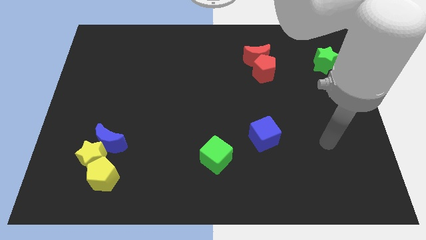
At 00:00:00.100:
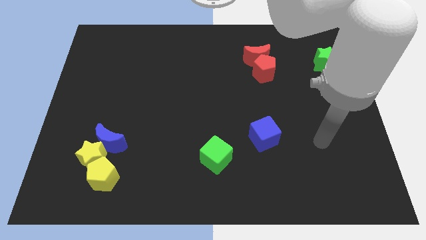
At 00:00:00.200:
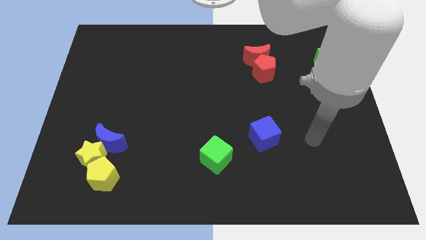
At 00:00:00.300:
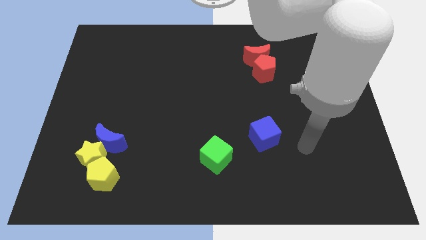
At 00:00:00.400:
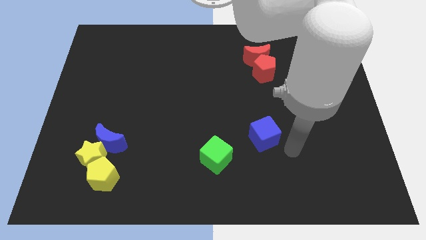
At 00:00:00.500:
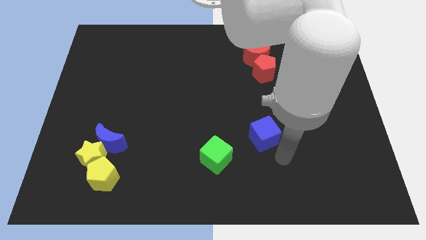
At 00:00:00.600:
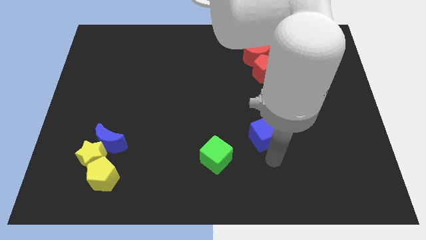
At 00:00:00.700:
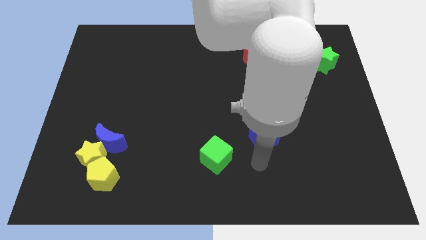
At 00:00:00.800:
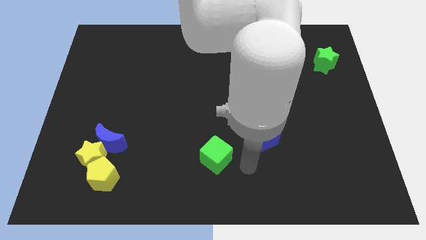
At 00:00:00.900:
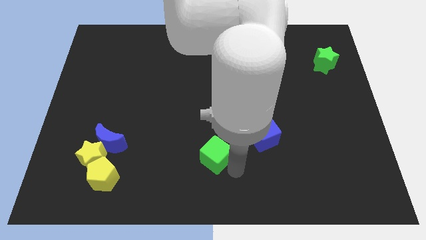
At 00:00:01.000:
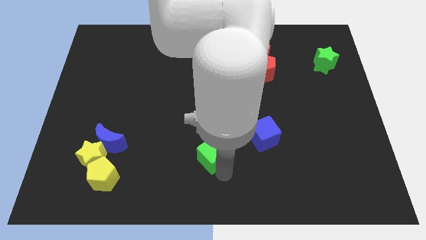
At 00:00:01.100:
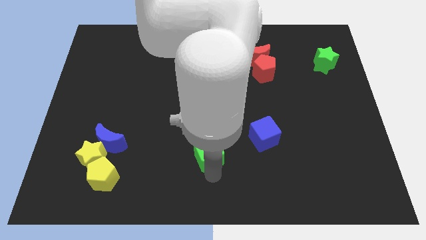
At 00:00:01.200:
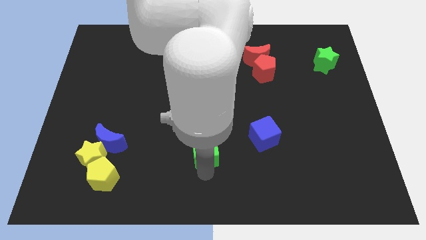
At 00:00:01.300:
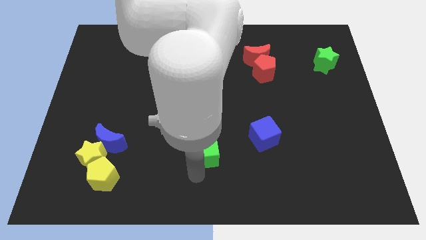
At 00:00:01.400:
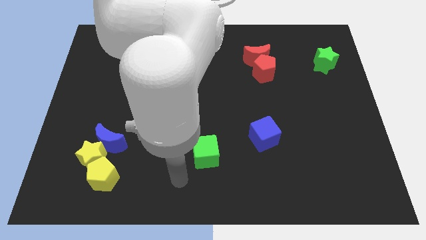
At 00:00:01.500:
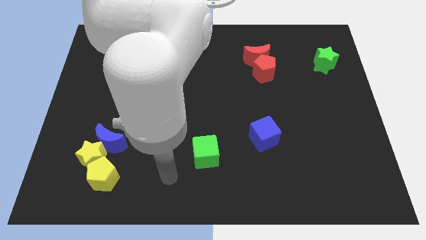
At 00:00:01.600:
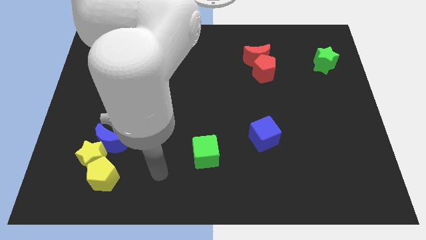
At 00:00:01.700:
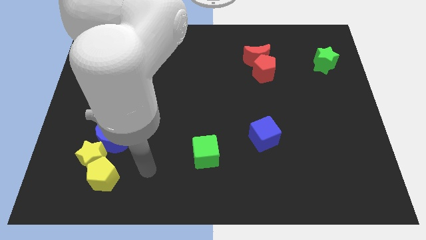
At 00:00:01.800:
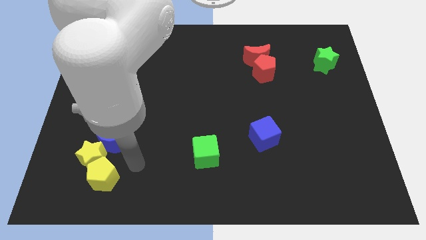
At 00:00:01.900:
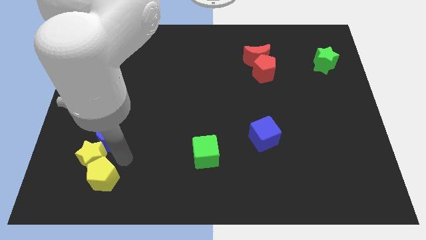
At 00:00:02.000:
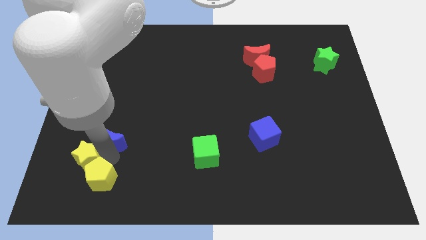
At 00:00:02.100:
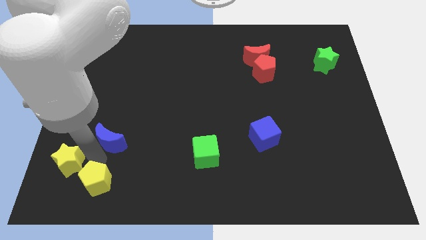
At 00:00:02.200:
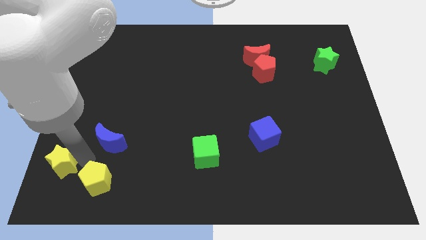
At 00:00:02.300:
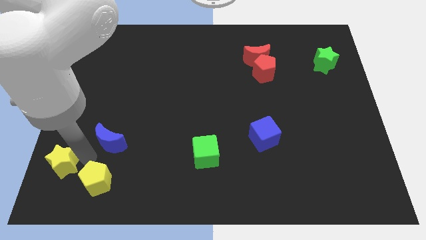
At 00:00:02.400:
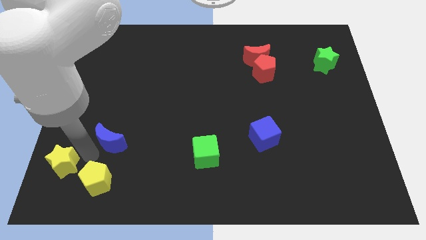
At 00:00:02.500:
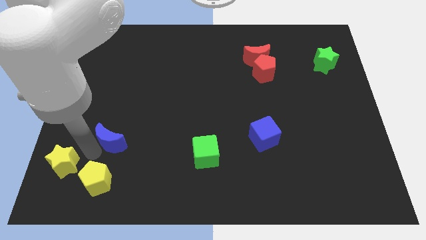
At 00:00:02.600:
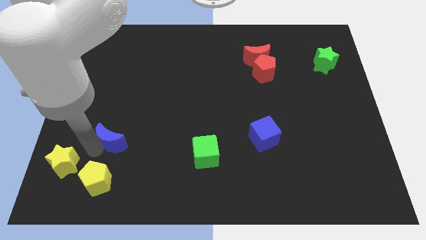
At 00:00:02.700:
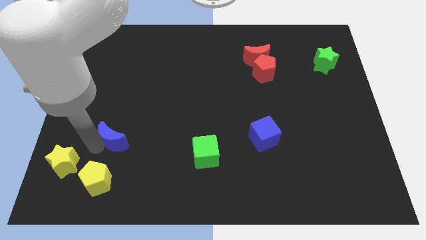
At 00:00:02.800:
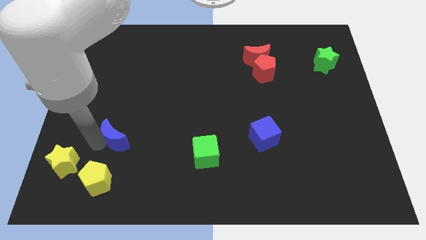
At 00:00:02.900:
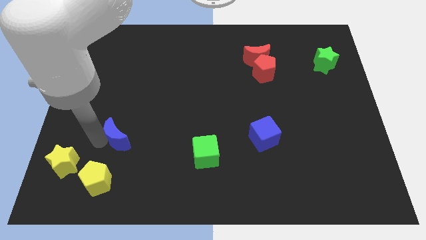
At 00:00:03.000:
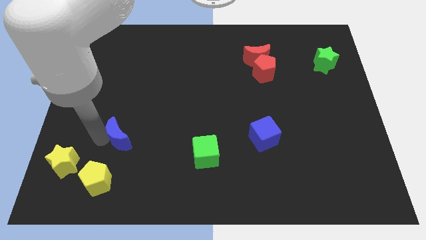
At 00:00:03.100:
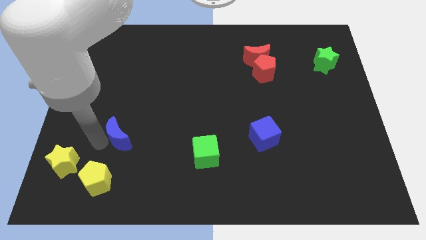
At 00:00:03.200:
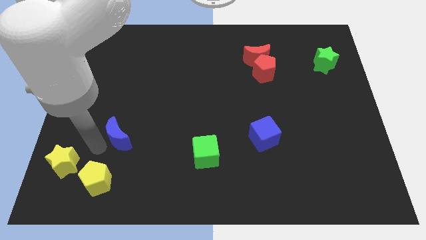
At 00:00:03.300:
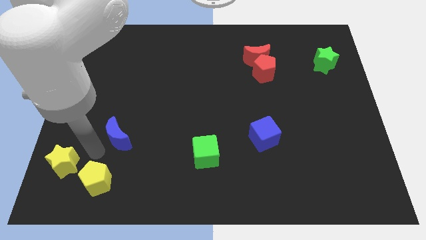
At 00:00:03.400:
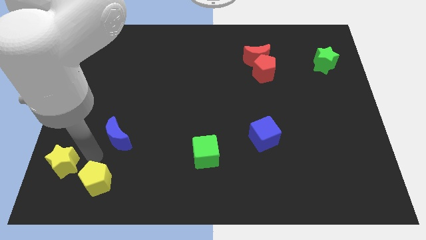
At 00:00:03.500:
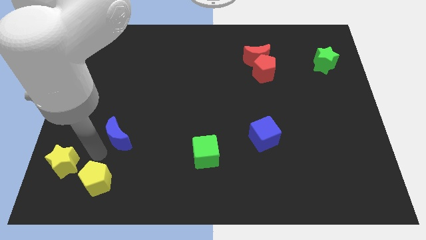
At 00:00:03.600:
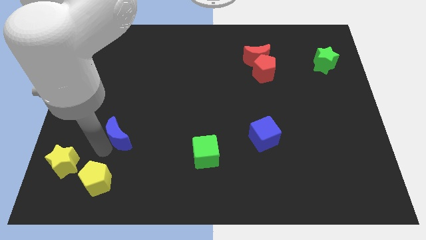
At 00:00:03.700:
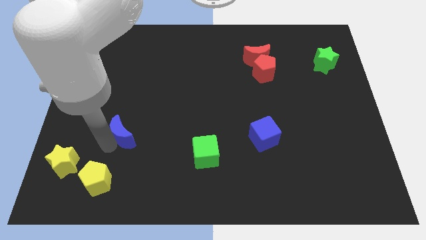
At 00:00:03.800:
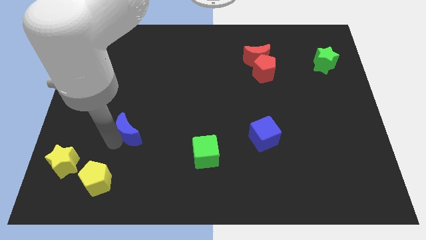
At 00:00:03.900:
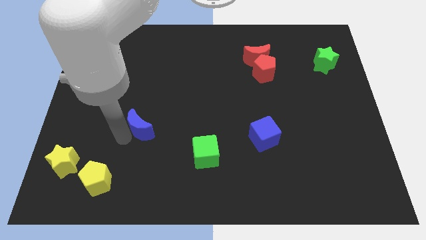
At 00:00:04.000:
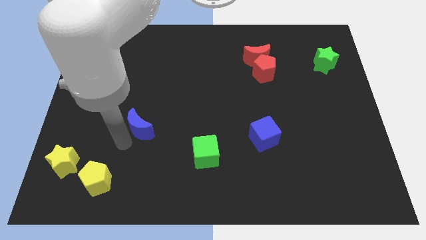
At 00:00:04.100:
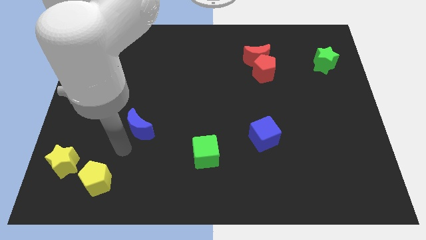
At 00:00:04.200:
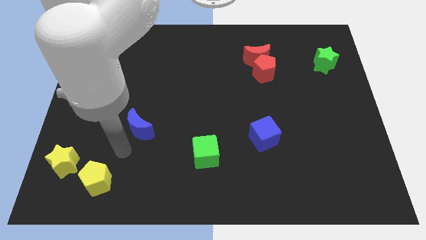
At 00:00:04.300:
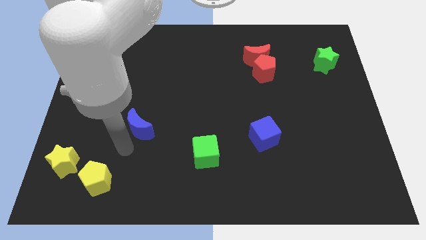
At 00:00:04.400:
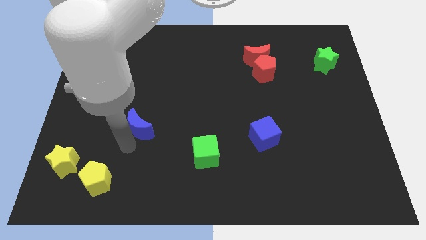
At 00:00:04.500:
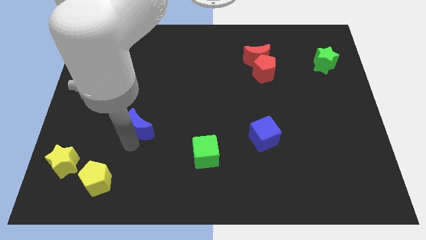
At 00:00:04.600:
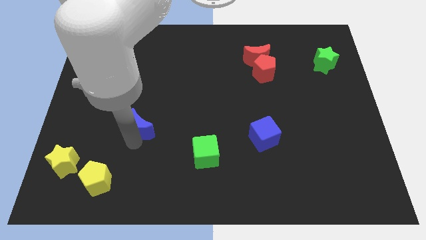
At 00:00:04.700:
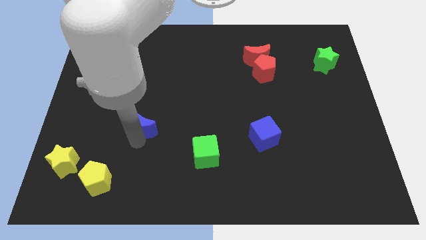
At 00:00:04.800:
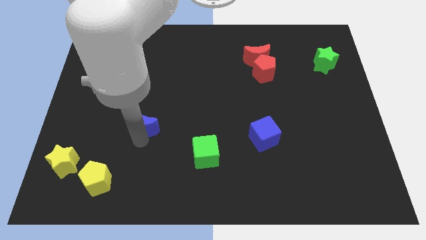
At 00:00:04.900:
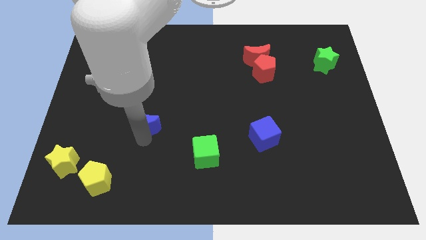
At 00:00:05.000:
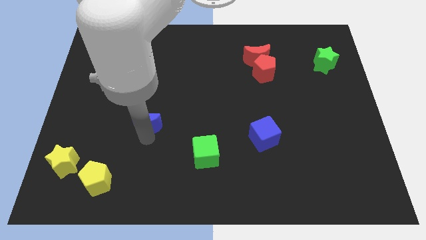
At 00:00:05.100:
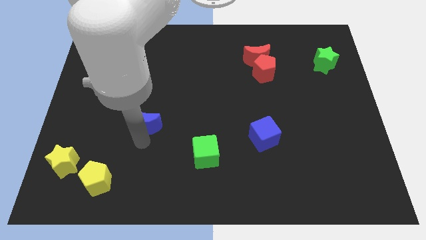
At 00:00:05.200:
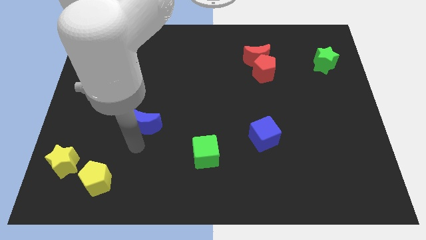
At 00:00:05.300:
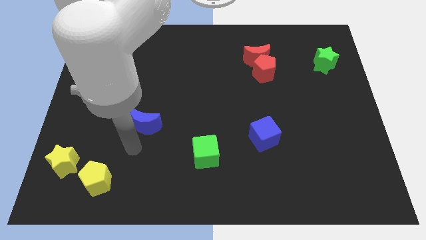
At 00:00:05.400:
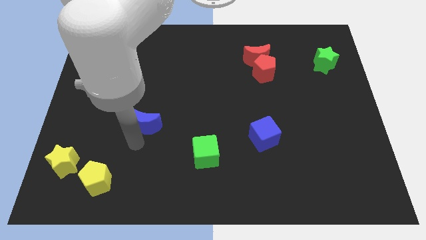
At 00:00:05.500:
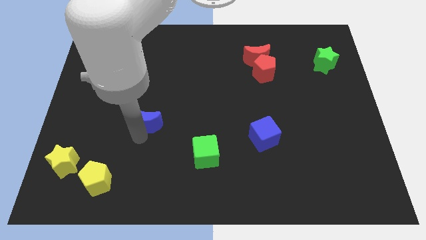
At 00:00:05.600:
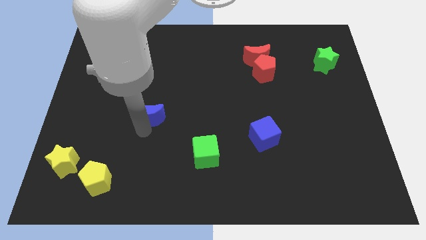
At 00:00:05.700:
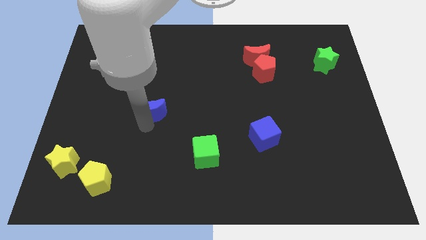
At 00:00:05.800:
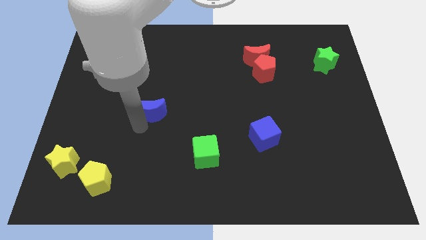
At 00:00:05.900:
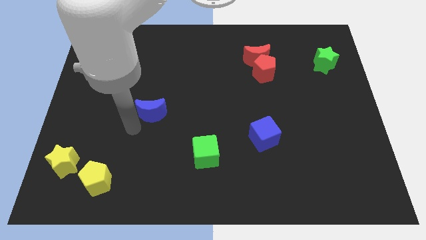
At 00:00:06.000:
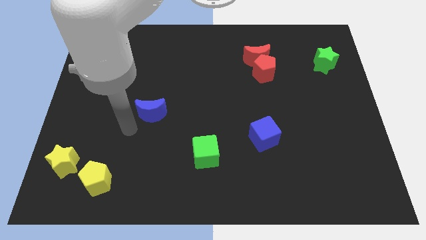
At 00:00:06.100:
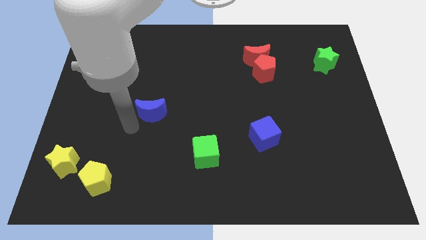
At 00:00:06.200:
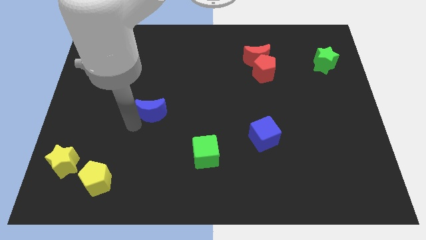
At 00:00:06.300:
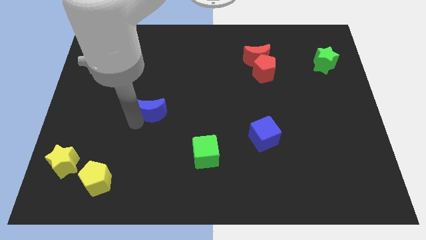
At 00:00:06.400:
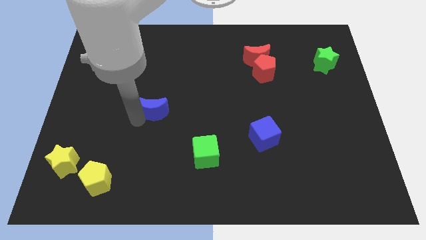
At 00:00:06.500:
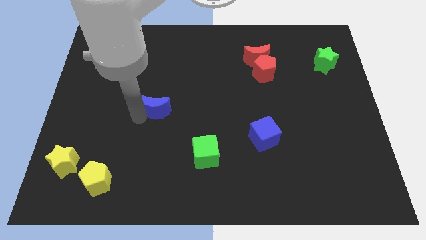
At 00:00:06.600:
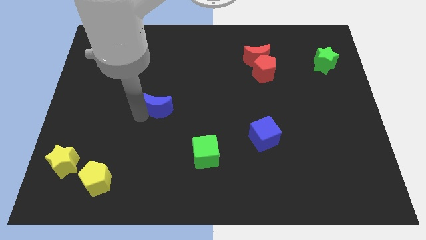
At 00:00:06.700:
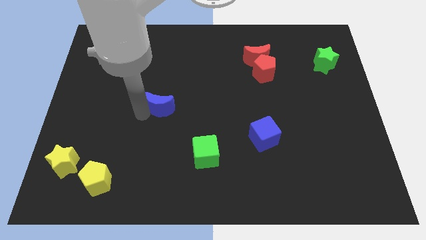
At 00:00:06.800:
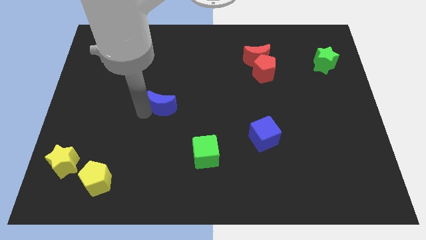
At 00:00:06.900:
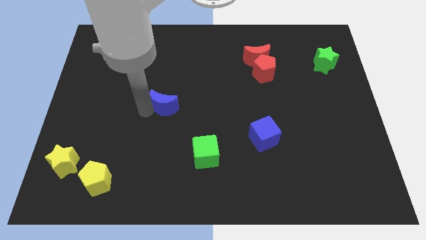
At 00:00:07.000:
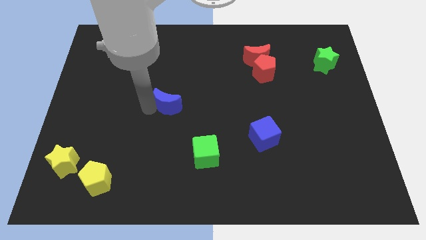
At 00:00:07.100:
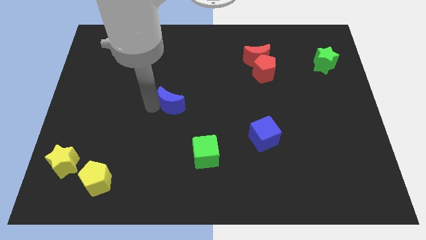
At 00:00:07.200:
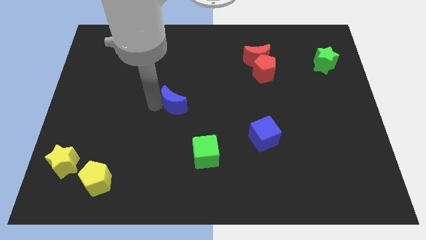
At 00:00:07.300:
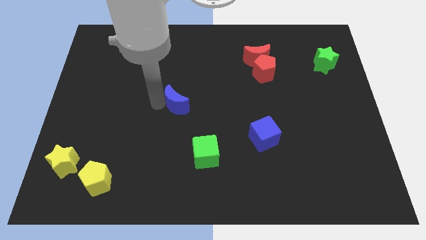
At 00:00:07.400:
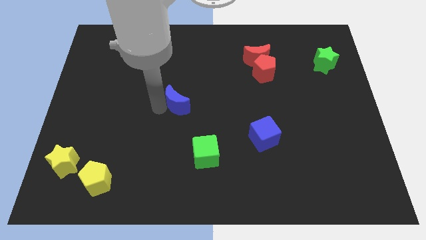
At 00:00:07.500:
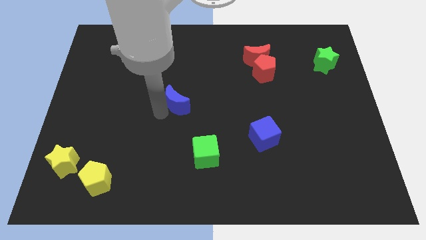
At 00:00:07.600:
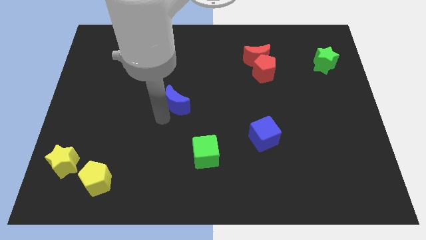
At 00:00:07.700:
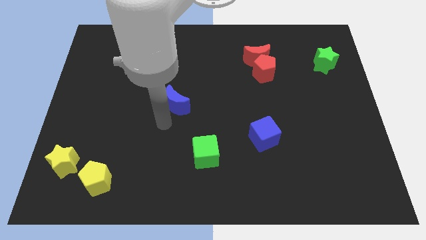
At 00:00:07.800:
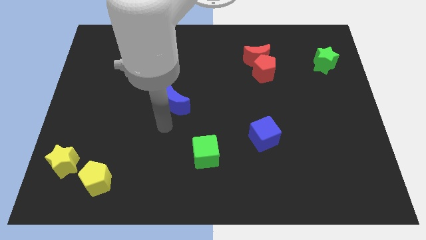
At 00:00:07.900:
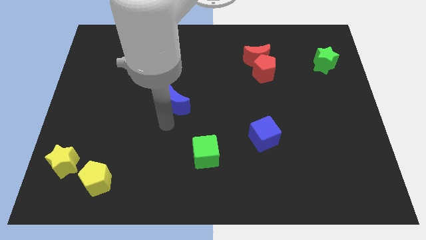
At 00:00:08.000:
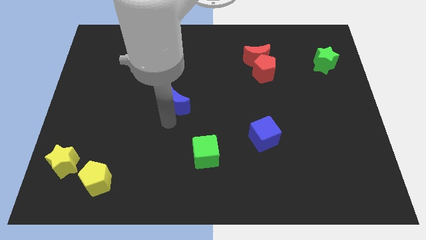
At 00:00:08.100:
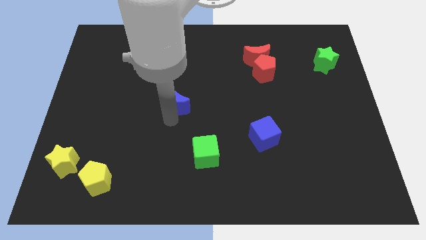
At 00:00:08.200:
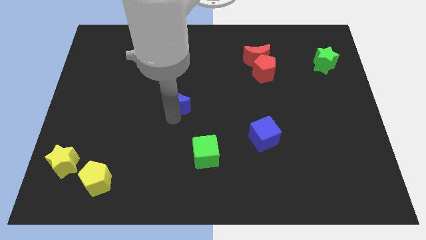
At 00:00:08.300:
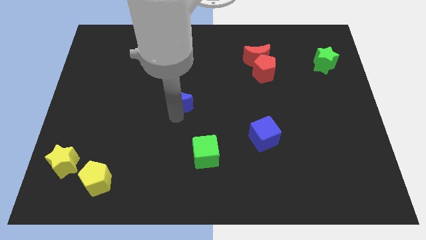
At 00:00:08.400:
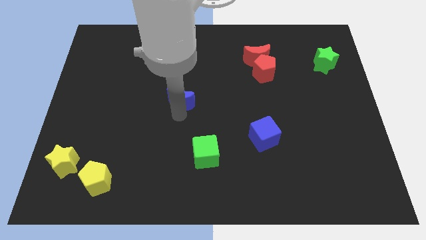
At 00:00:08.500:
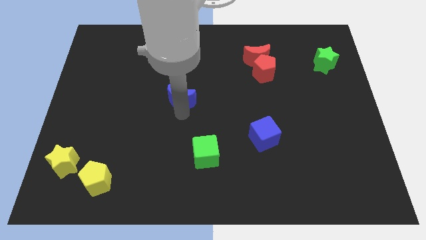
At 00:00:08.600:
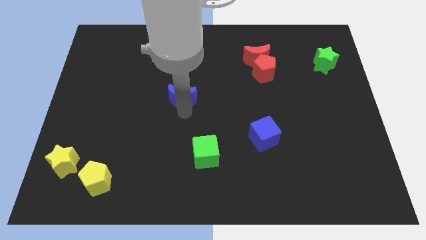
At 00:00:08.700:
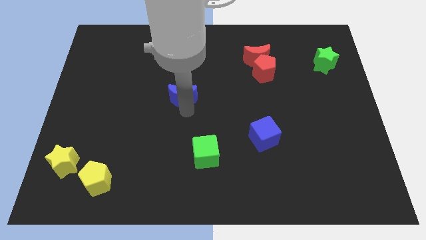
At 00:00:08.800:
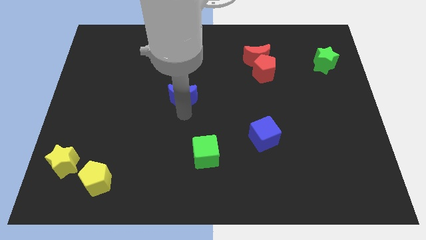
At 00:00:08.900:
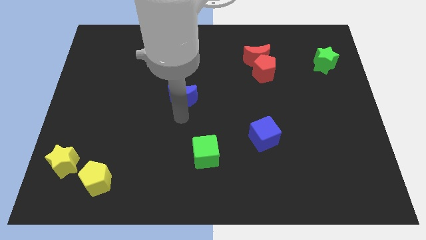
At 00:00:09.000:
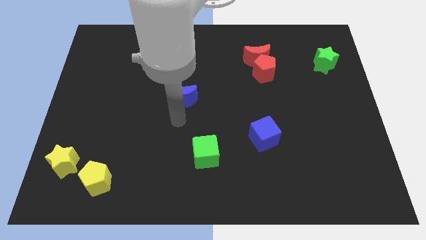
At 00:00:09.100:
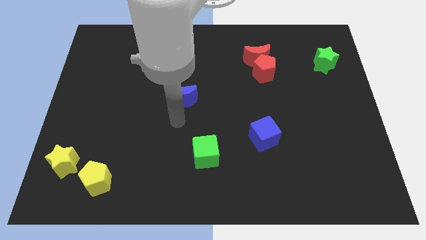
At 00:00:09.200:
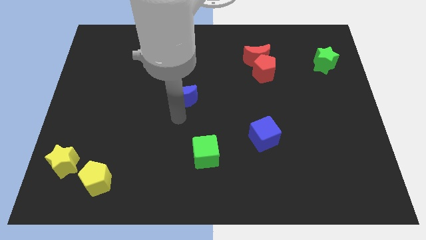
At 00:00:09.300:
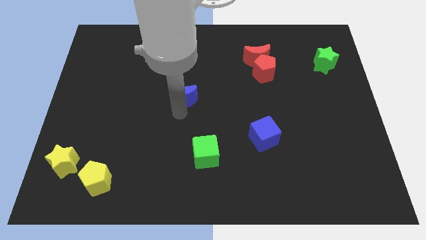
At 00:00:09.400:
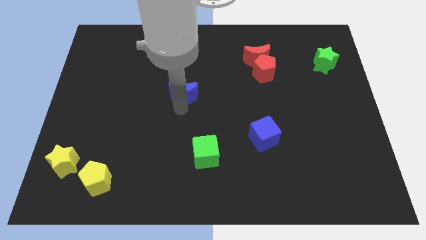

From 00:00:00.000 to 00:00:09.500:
move the blue moon up and right diagonally
